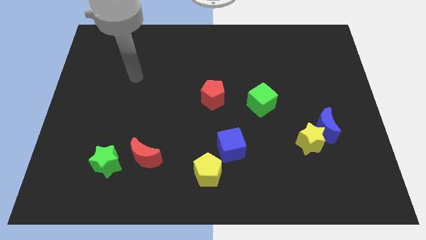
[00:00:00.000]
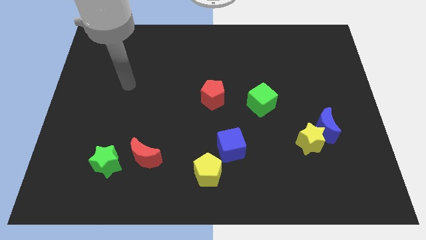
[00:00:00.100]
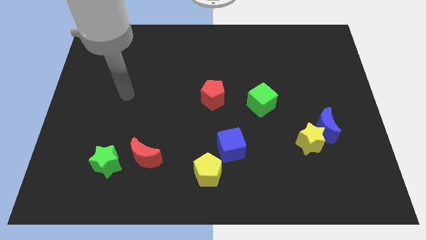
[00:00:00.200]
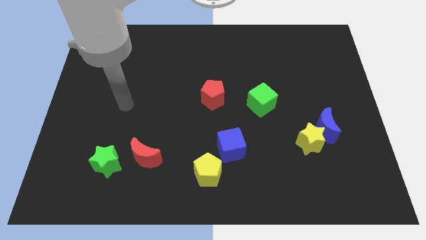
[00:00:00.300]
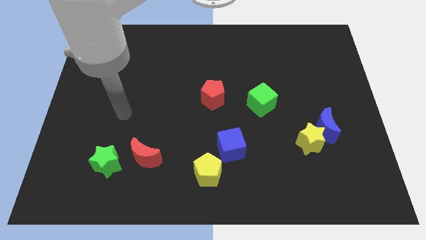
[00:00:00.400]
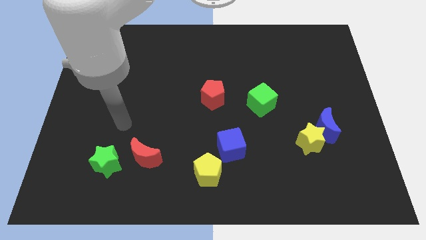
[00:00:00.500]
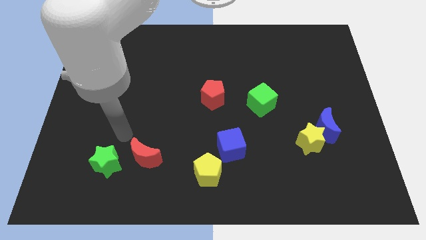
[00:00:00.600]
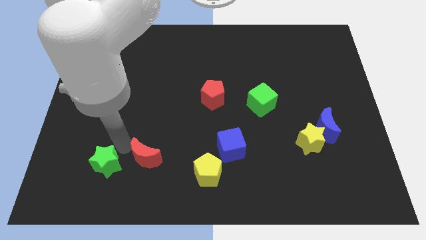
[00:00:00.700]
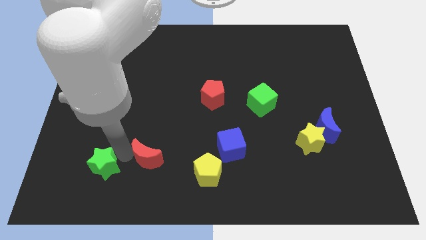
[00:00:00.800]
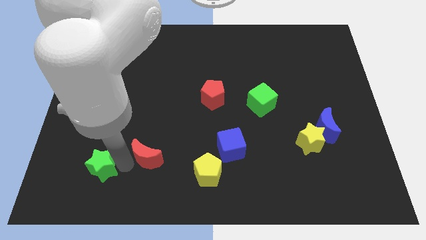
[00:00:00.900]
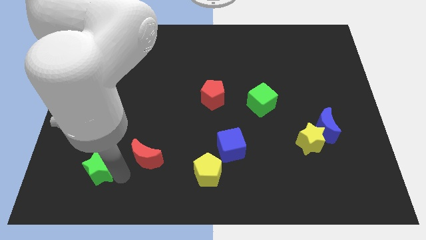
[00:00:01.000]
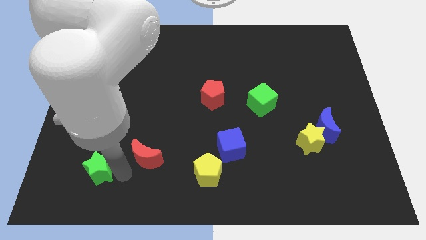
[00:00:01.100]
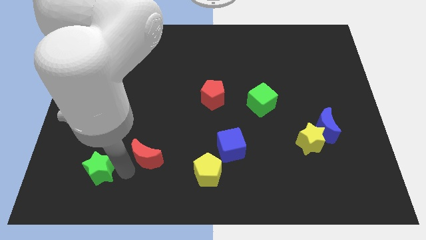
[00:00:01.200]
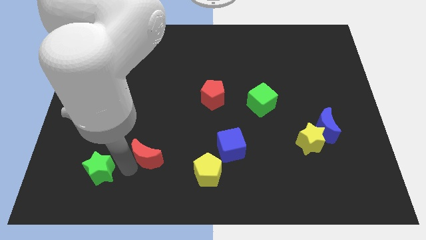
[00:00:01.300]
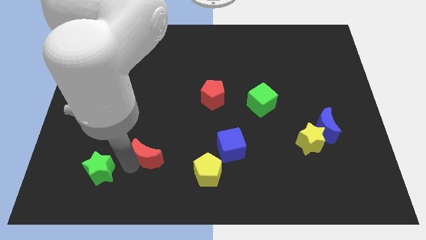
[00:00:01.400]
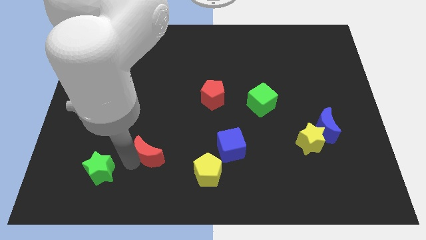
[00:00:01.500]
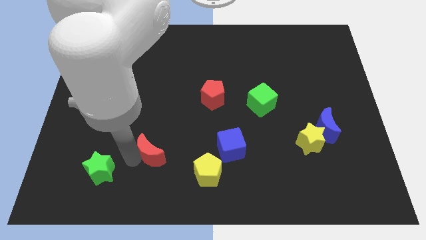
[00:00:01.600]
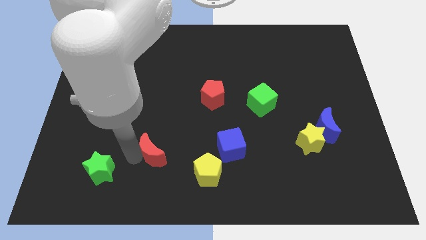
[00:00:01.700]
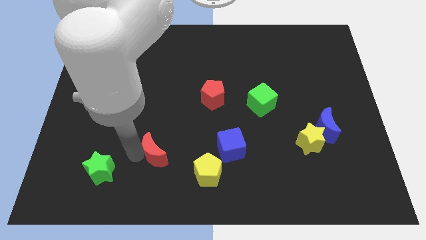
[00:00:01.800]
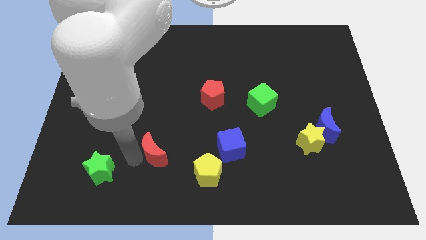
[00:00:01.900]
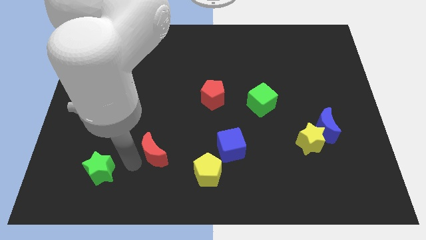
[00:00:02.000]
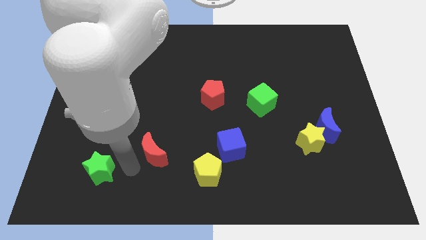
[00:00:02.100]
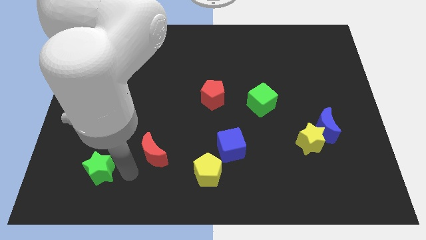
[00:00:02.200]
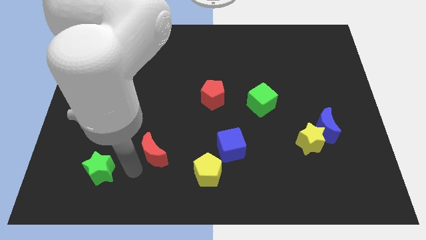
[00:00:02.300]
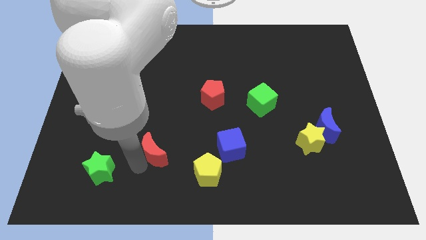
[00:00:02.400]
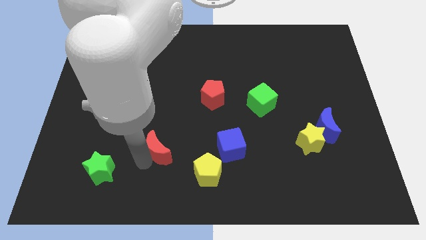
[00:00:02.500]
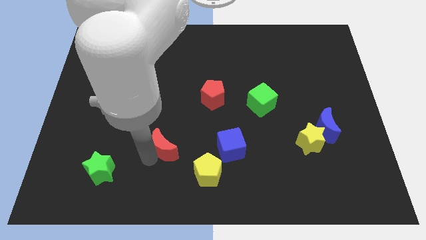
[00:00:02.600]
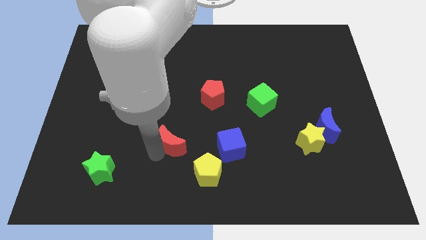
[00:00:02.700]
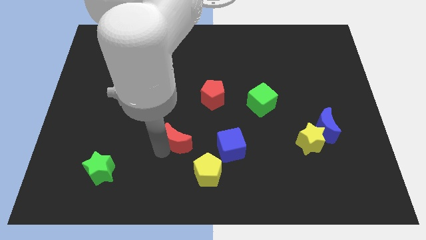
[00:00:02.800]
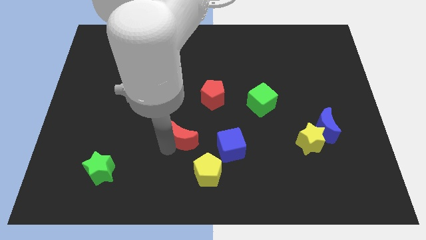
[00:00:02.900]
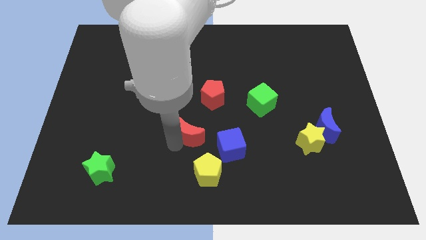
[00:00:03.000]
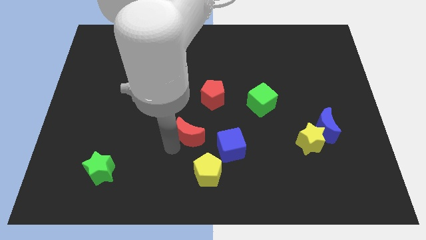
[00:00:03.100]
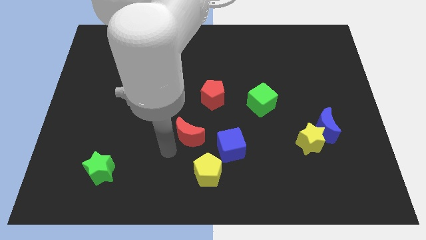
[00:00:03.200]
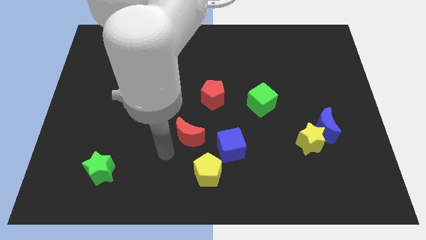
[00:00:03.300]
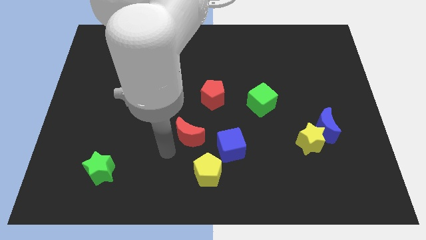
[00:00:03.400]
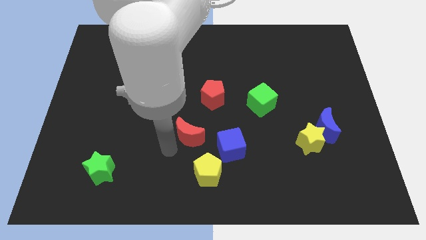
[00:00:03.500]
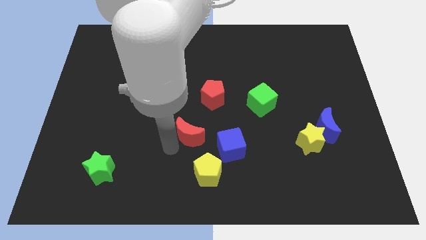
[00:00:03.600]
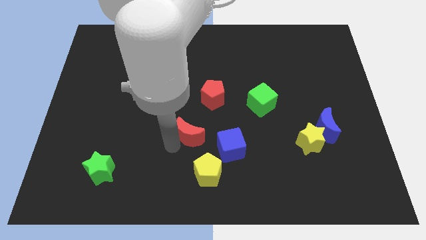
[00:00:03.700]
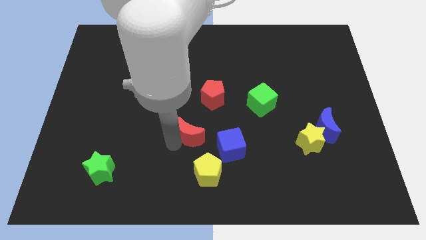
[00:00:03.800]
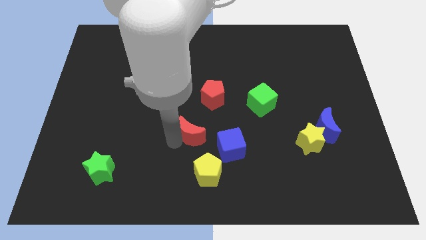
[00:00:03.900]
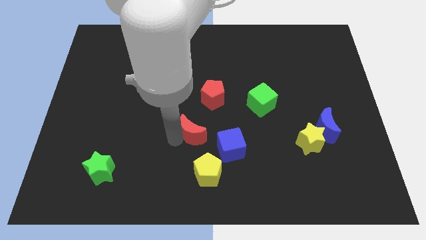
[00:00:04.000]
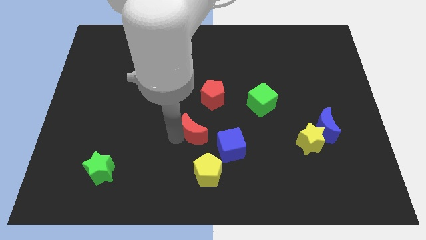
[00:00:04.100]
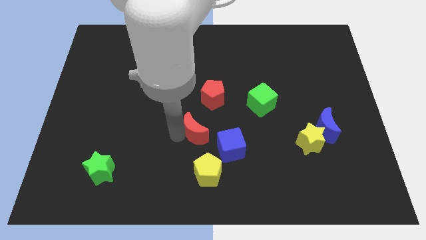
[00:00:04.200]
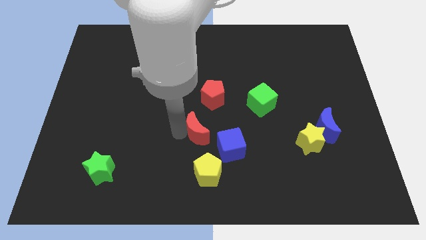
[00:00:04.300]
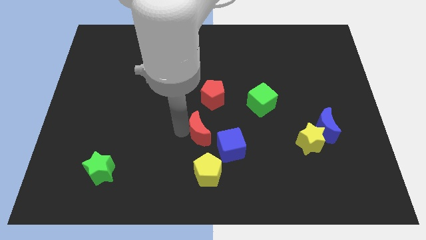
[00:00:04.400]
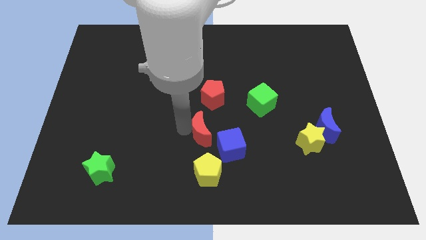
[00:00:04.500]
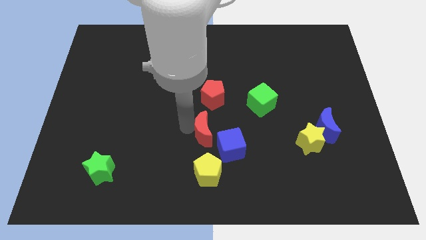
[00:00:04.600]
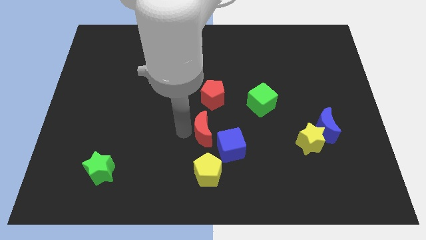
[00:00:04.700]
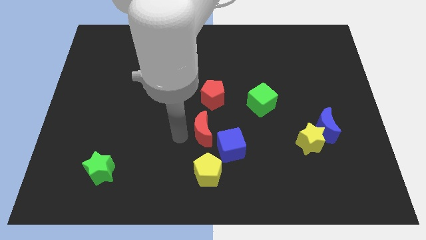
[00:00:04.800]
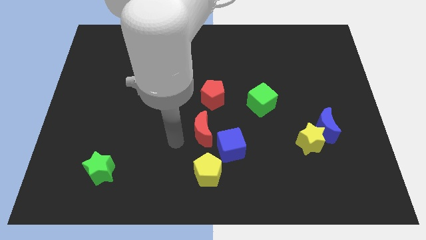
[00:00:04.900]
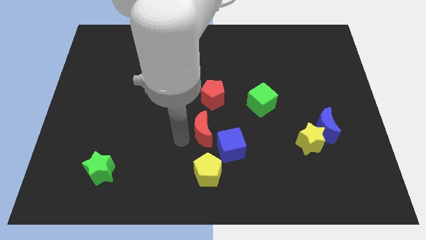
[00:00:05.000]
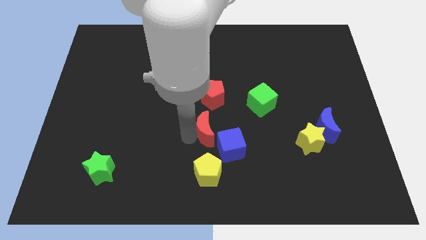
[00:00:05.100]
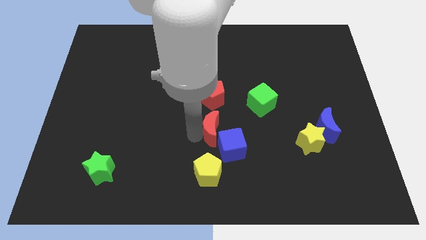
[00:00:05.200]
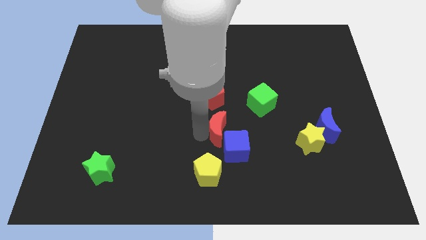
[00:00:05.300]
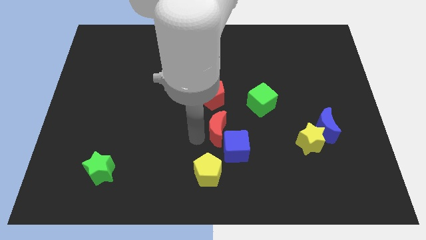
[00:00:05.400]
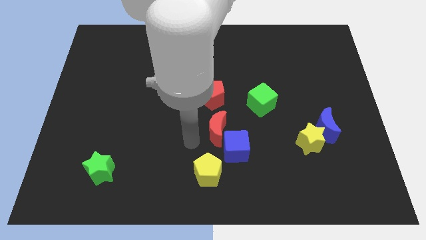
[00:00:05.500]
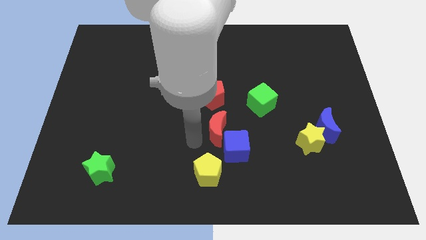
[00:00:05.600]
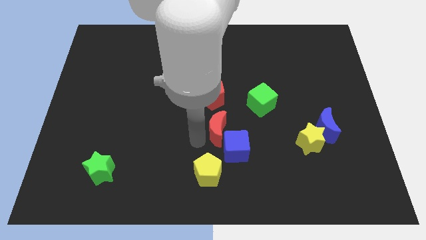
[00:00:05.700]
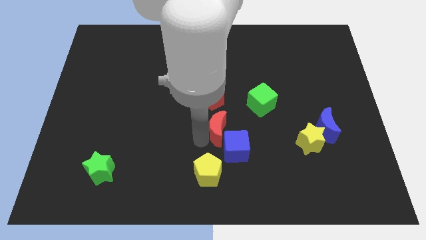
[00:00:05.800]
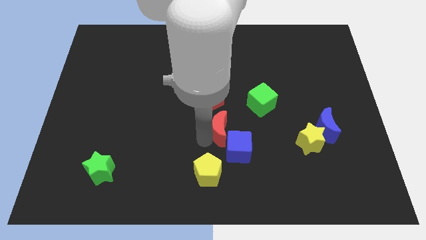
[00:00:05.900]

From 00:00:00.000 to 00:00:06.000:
move the red moon to the bottom left side of the green cube

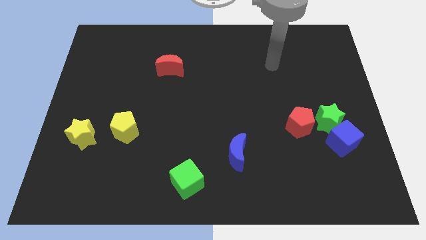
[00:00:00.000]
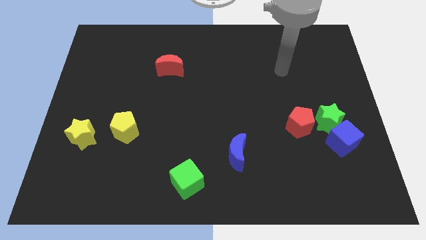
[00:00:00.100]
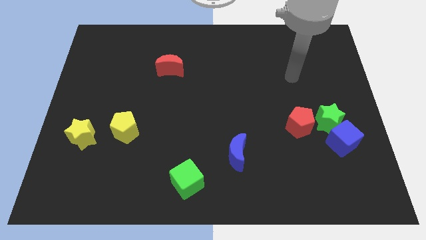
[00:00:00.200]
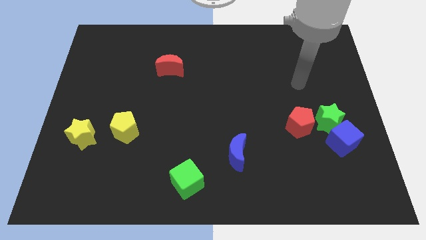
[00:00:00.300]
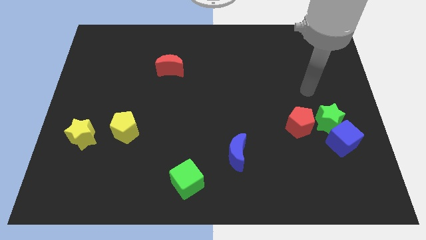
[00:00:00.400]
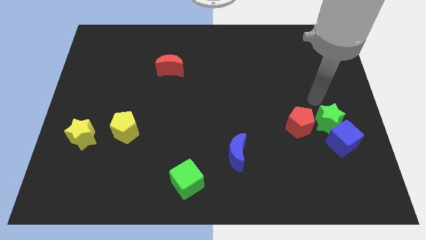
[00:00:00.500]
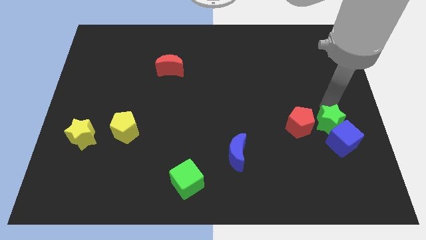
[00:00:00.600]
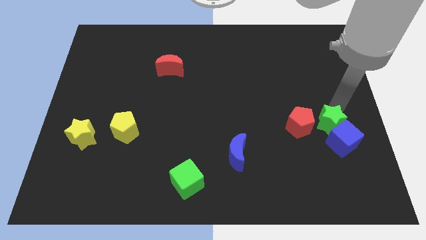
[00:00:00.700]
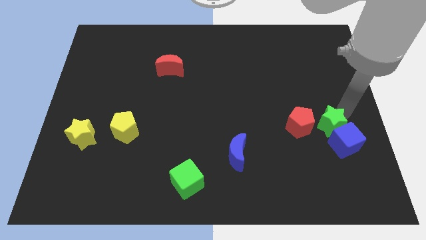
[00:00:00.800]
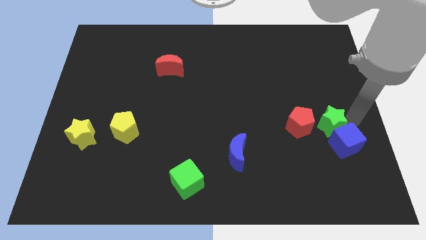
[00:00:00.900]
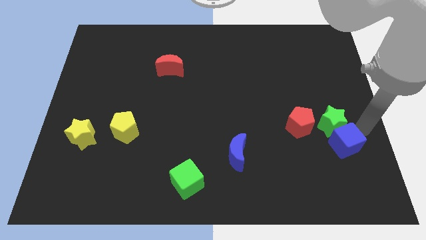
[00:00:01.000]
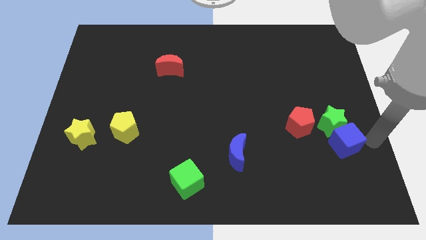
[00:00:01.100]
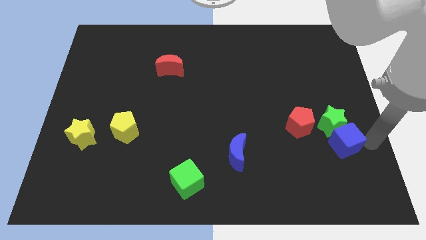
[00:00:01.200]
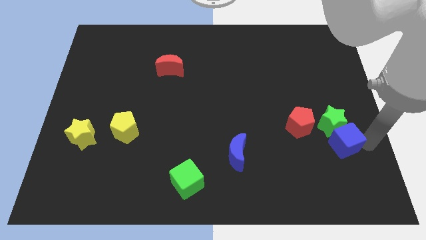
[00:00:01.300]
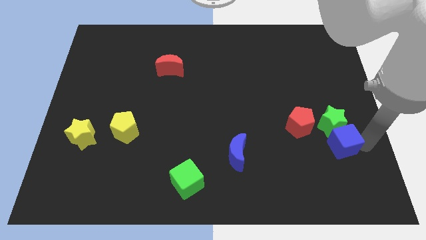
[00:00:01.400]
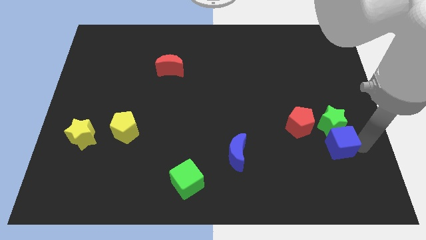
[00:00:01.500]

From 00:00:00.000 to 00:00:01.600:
slide the blue cube diagonally down and to the left of the green star
